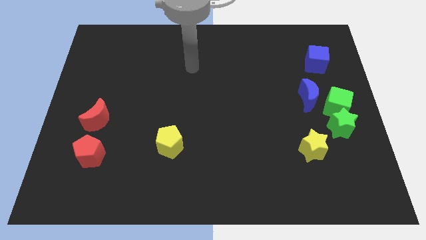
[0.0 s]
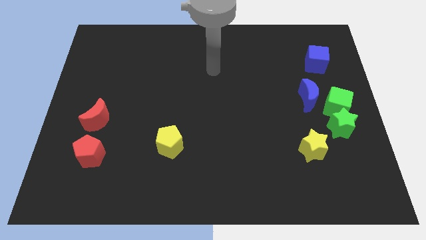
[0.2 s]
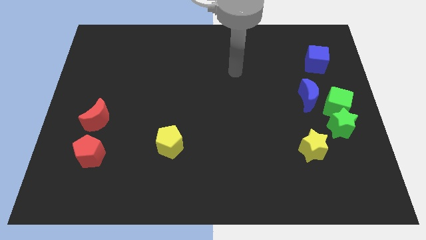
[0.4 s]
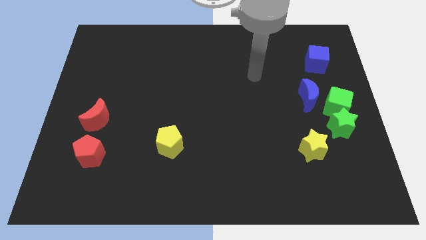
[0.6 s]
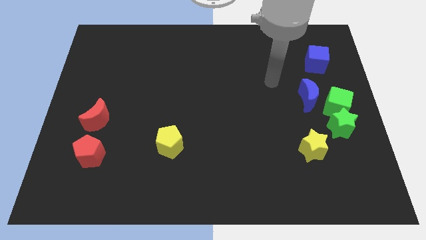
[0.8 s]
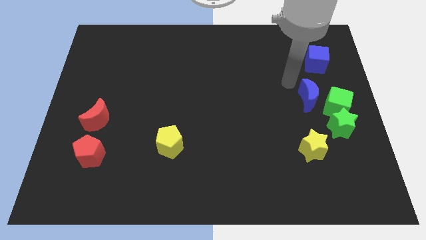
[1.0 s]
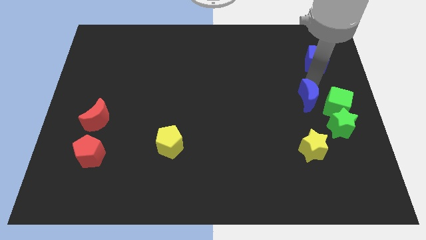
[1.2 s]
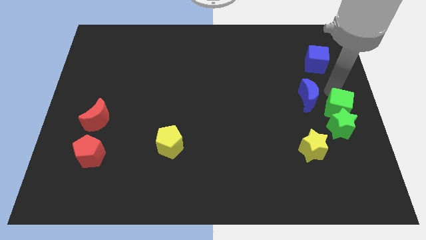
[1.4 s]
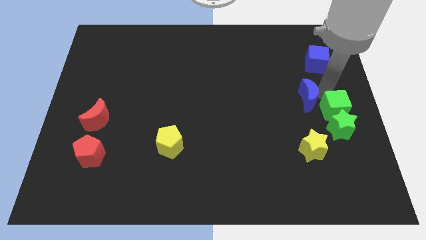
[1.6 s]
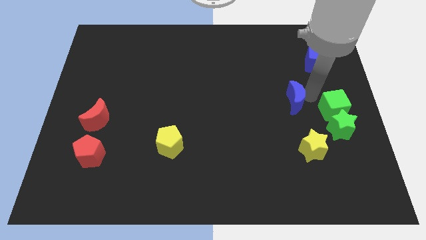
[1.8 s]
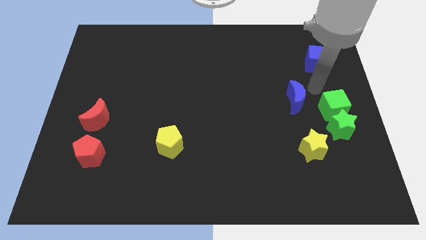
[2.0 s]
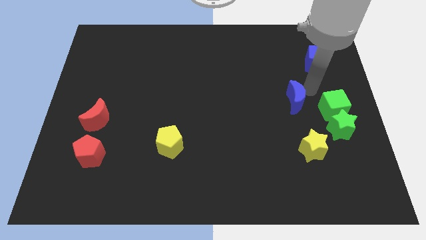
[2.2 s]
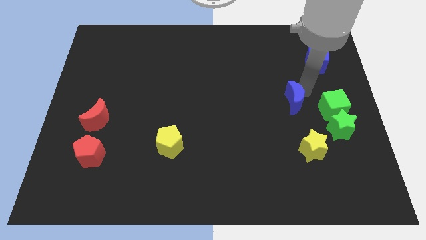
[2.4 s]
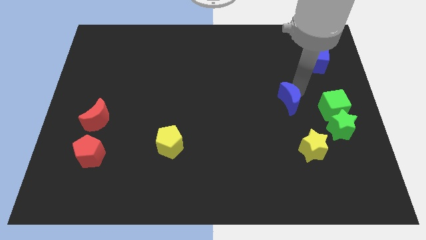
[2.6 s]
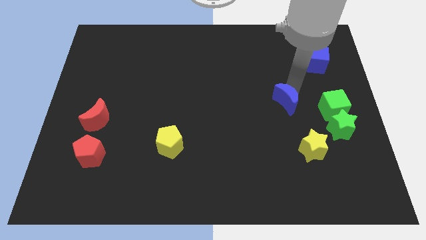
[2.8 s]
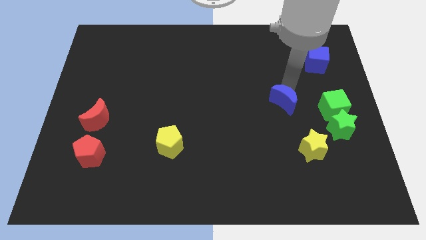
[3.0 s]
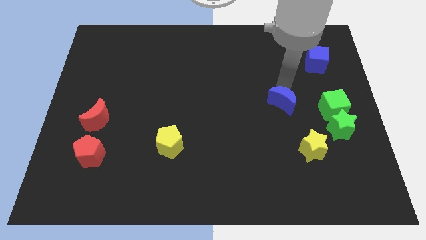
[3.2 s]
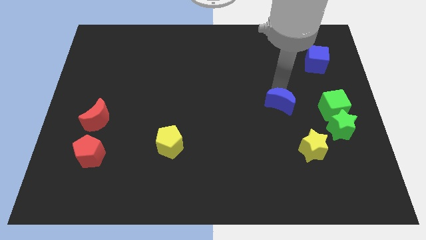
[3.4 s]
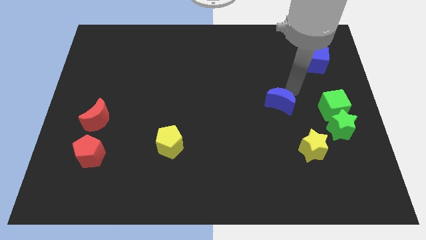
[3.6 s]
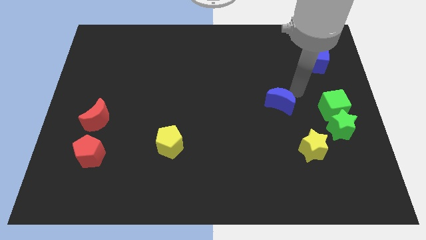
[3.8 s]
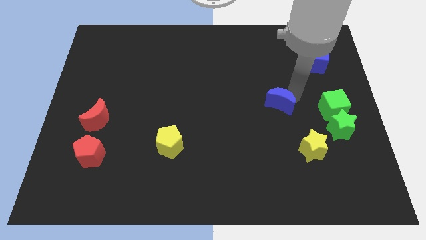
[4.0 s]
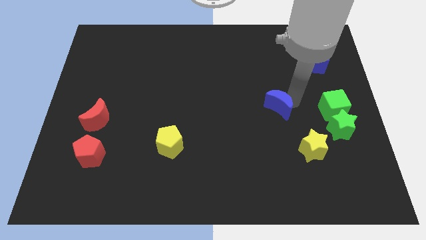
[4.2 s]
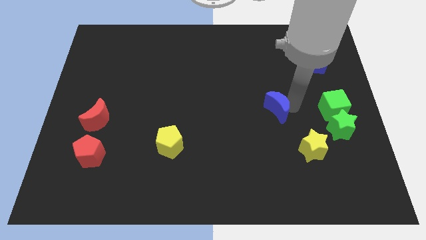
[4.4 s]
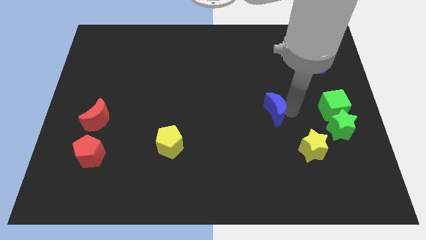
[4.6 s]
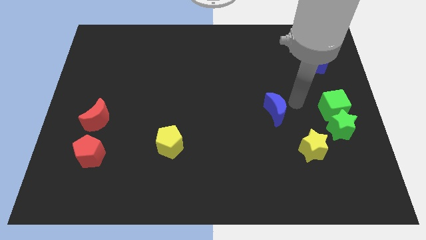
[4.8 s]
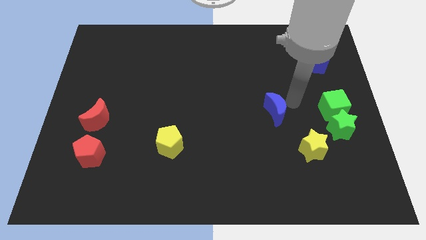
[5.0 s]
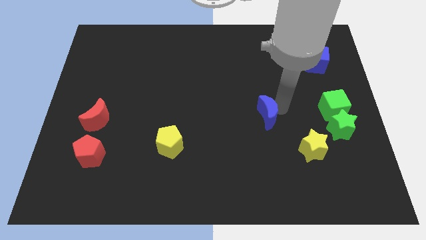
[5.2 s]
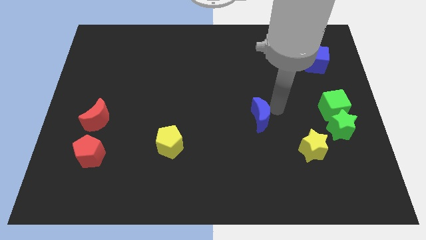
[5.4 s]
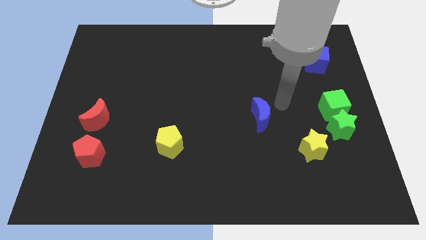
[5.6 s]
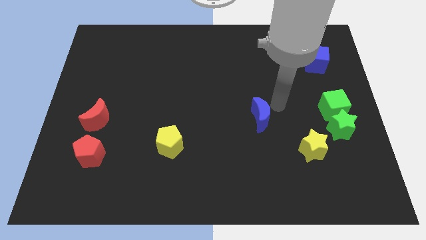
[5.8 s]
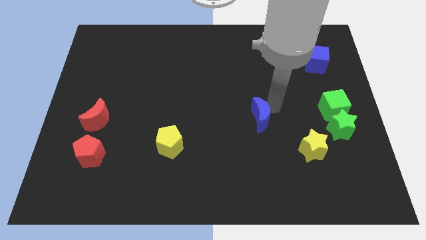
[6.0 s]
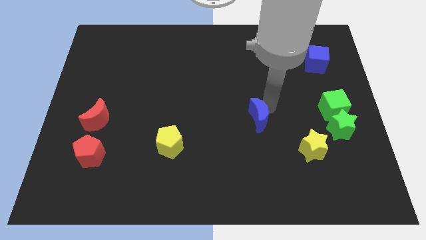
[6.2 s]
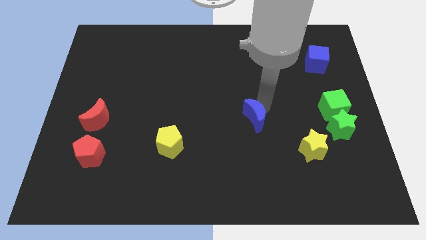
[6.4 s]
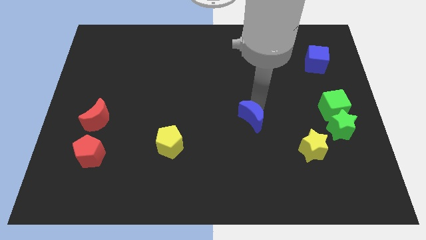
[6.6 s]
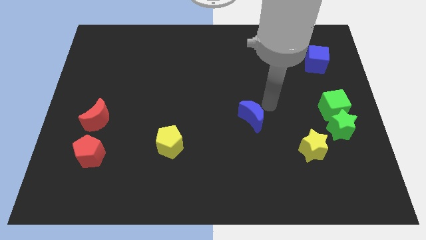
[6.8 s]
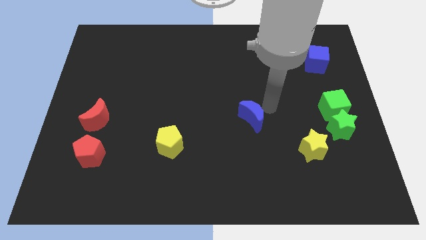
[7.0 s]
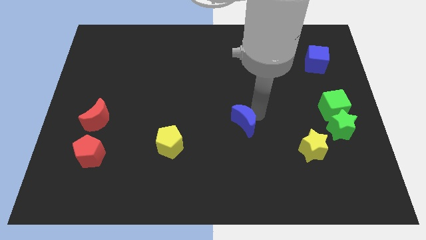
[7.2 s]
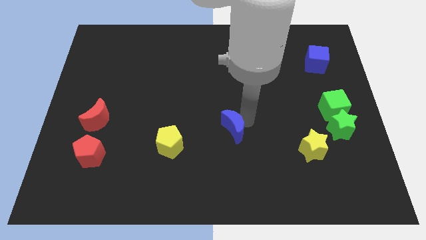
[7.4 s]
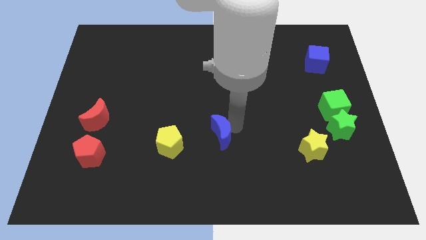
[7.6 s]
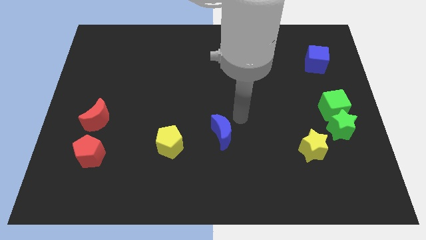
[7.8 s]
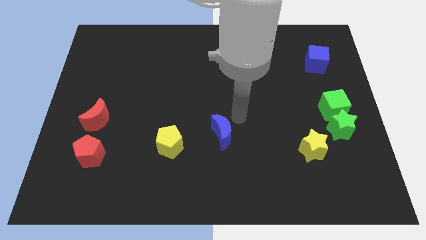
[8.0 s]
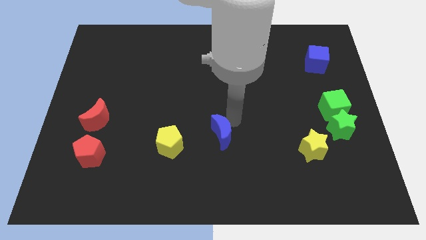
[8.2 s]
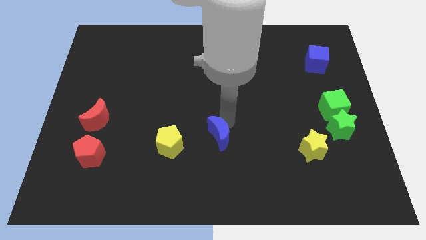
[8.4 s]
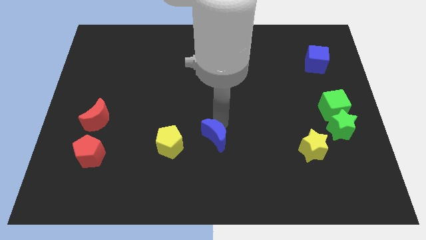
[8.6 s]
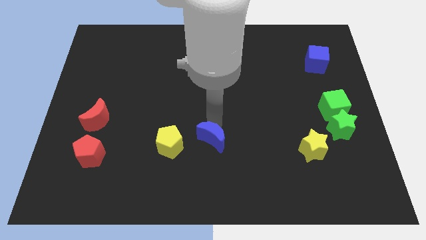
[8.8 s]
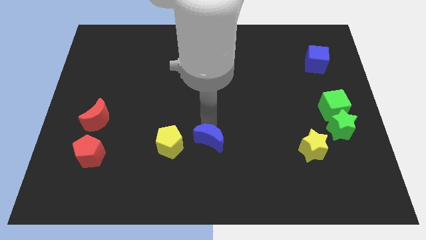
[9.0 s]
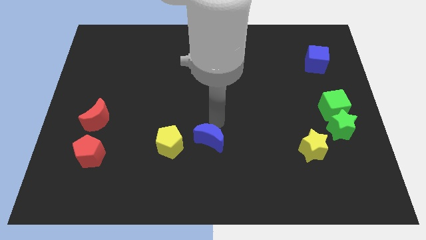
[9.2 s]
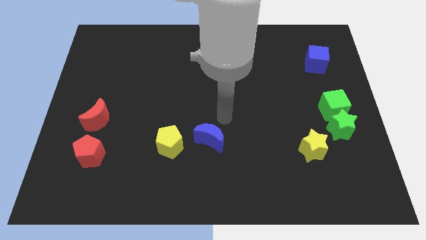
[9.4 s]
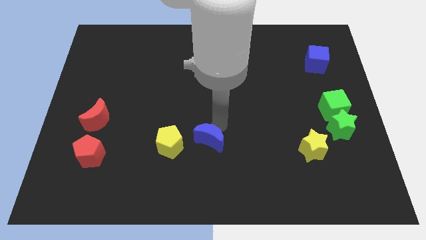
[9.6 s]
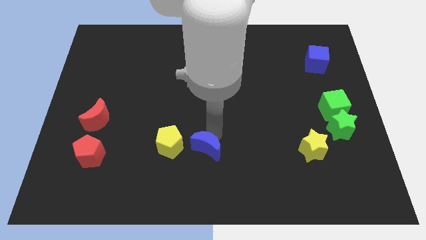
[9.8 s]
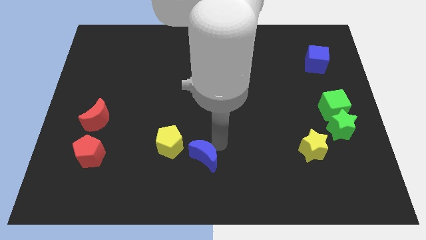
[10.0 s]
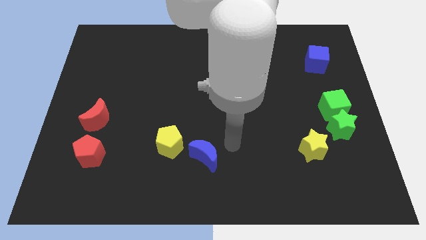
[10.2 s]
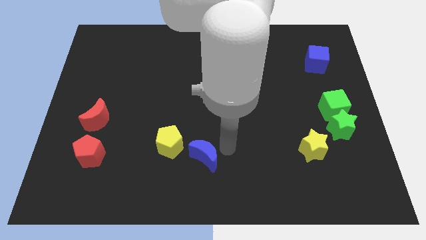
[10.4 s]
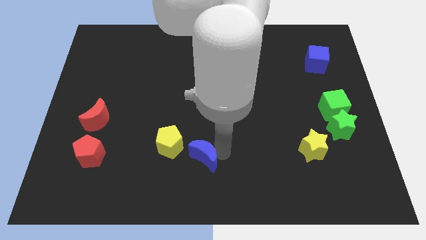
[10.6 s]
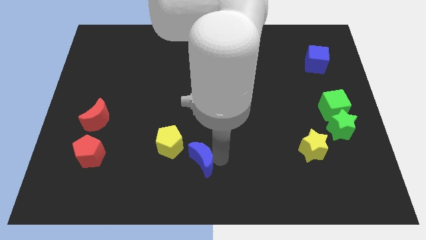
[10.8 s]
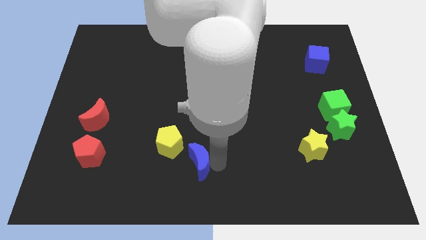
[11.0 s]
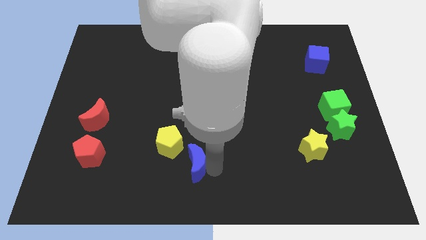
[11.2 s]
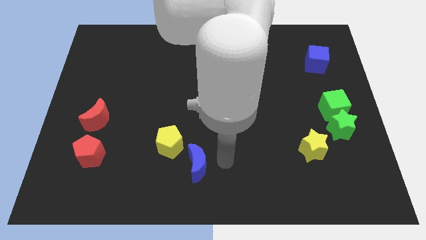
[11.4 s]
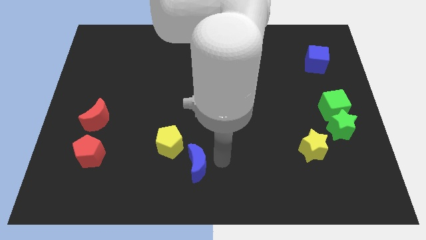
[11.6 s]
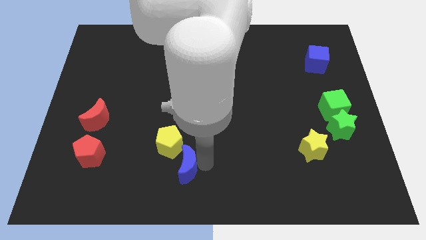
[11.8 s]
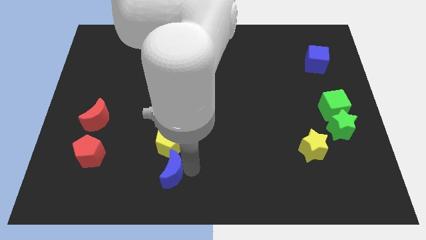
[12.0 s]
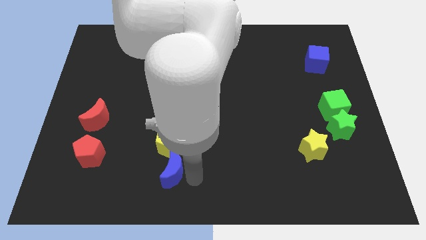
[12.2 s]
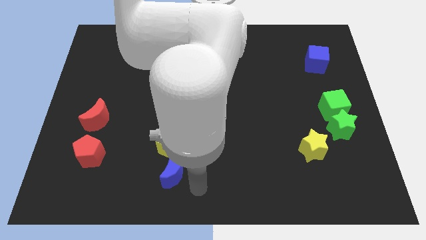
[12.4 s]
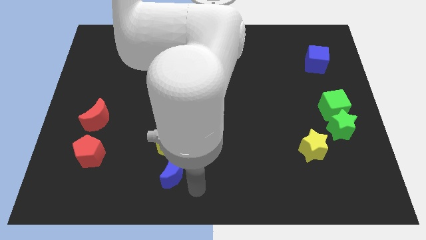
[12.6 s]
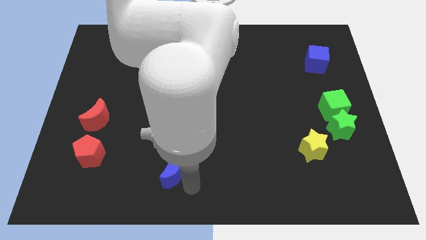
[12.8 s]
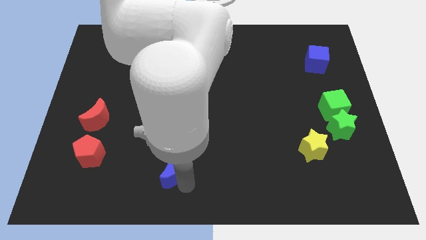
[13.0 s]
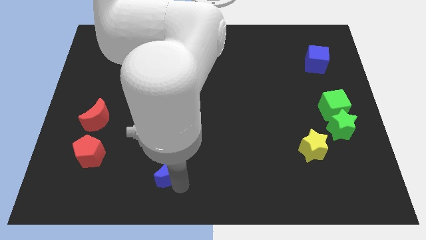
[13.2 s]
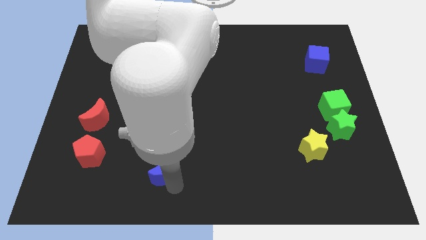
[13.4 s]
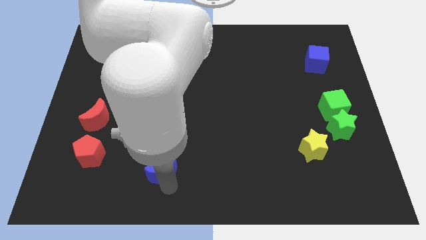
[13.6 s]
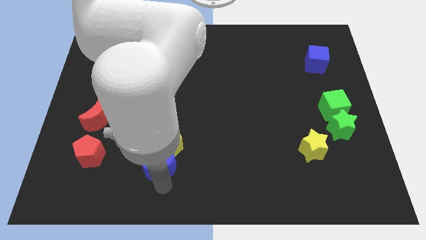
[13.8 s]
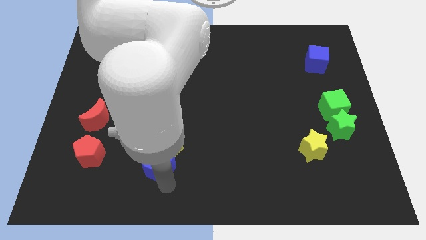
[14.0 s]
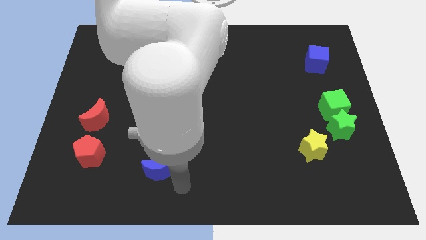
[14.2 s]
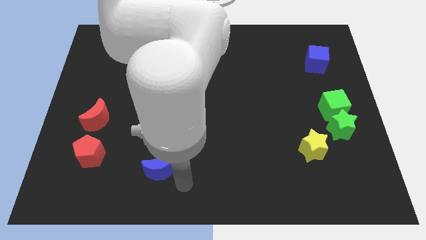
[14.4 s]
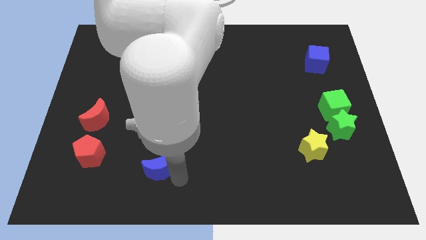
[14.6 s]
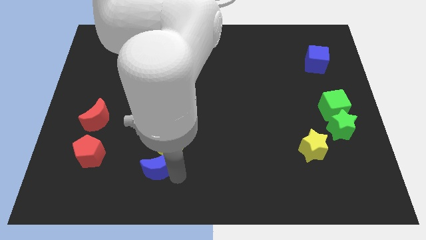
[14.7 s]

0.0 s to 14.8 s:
move the blue moon to the right side of the red pentagon

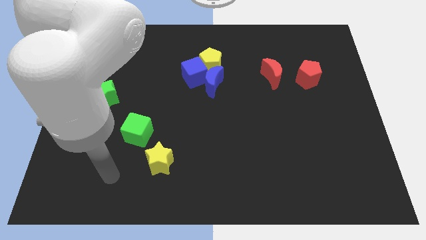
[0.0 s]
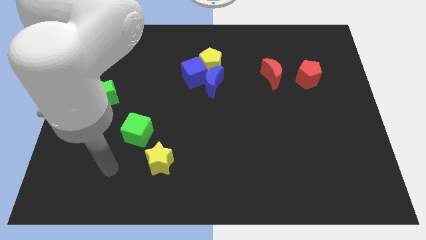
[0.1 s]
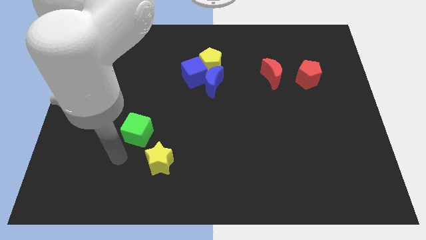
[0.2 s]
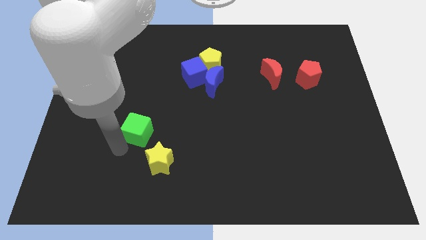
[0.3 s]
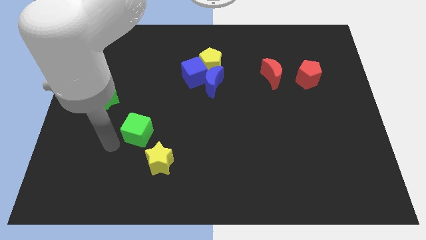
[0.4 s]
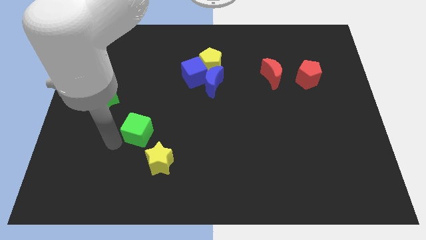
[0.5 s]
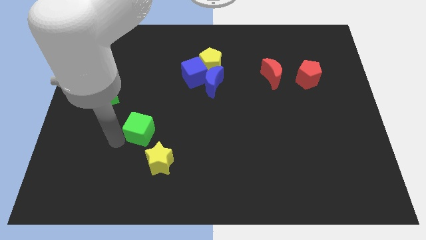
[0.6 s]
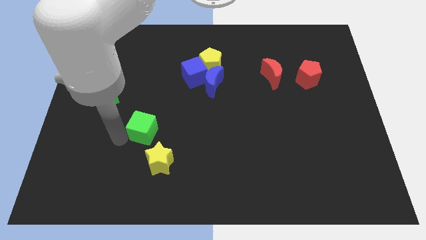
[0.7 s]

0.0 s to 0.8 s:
move the green cube to the top side of the yellow star
